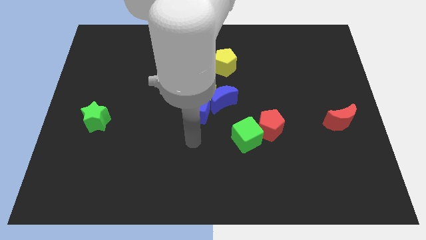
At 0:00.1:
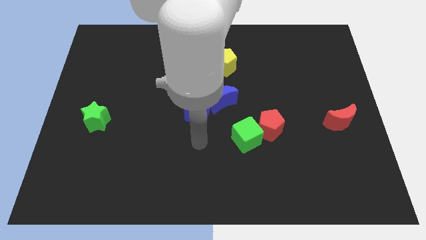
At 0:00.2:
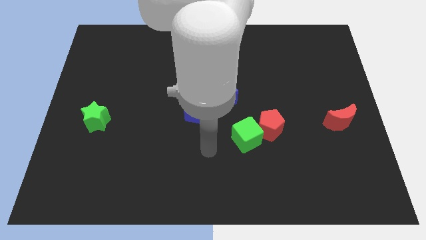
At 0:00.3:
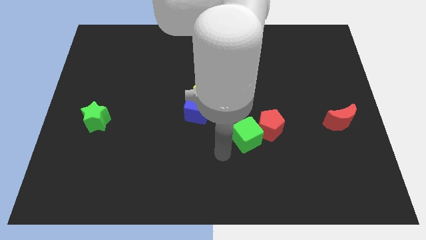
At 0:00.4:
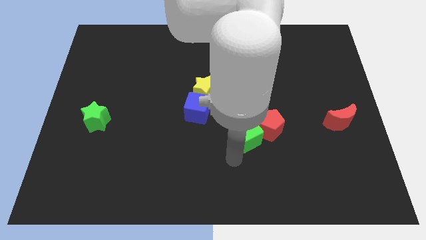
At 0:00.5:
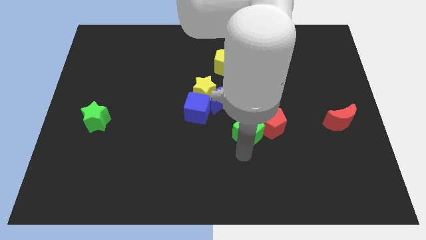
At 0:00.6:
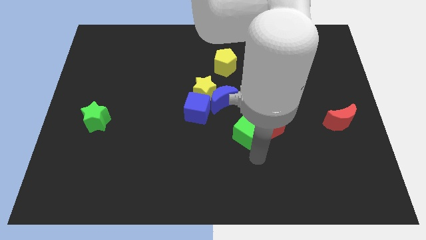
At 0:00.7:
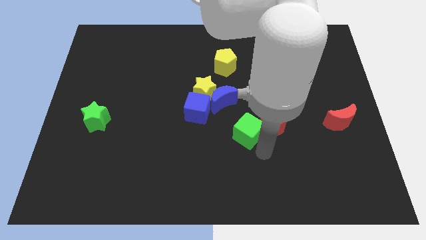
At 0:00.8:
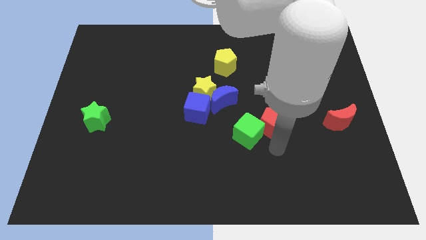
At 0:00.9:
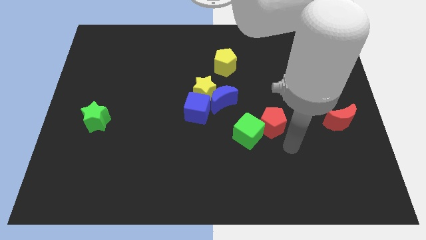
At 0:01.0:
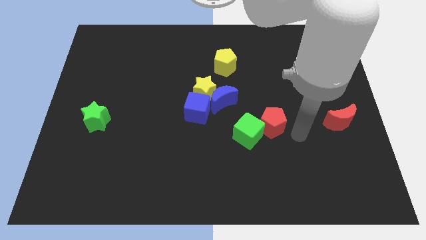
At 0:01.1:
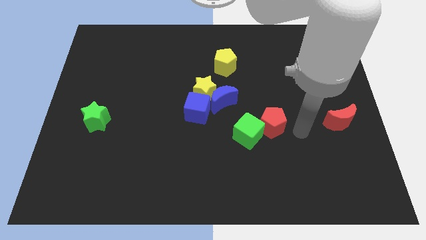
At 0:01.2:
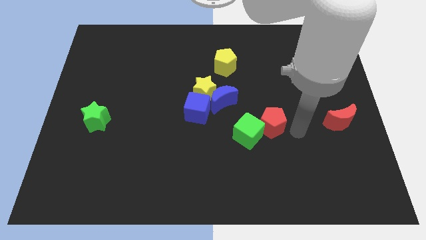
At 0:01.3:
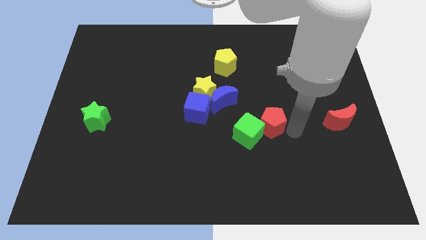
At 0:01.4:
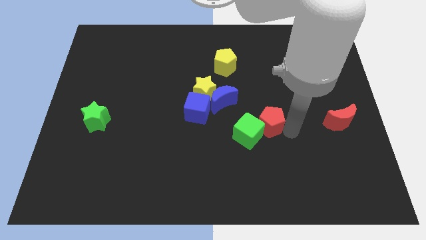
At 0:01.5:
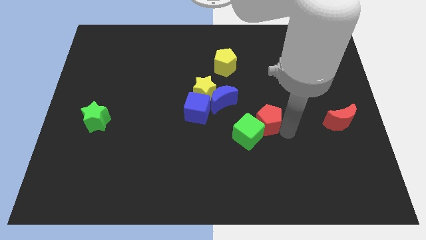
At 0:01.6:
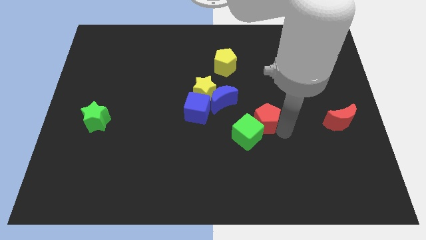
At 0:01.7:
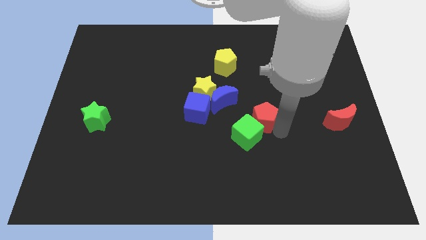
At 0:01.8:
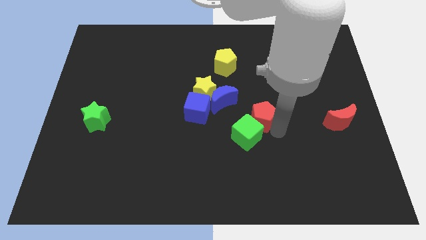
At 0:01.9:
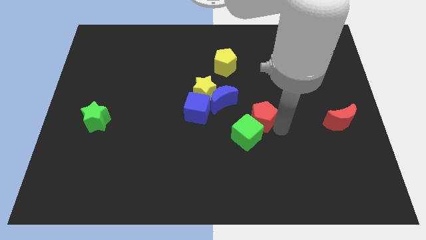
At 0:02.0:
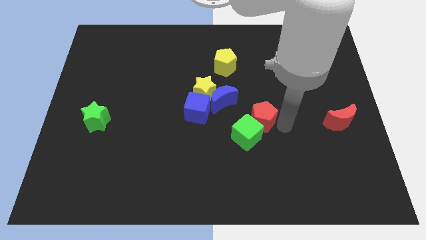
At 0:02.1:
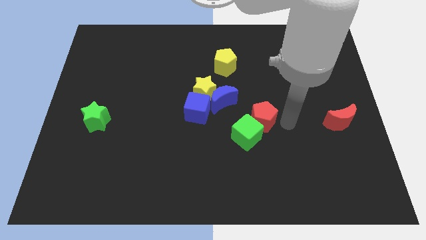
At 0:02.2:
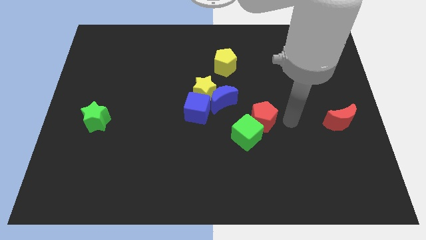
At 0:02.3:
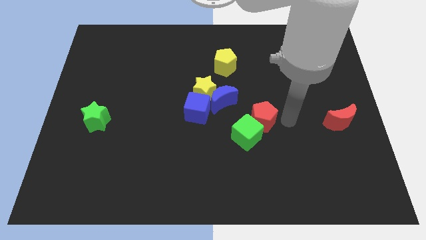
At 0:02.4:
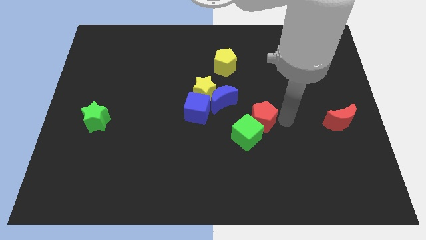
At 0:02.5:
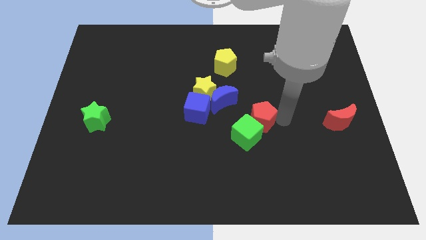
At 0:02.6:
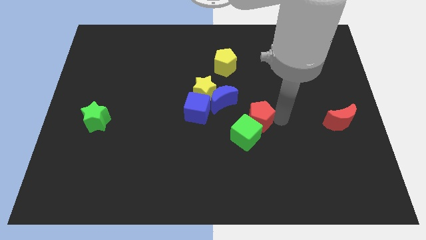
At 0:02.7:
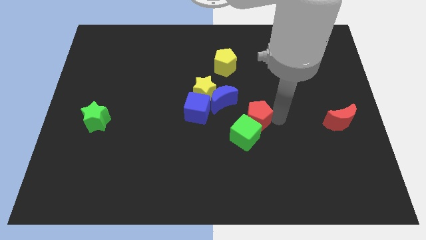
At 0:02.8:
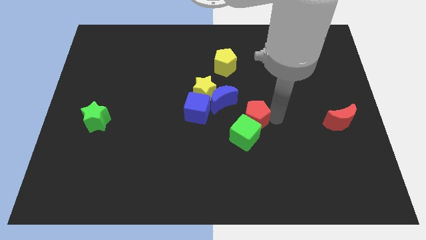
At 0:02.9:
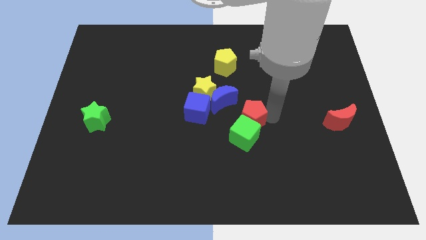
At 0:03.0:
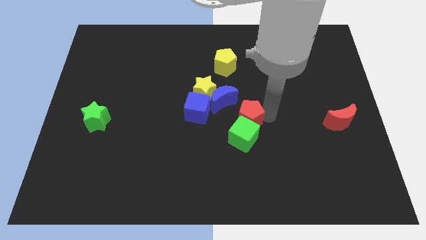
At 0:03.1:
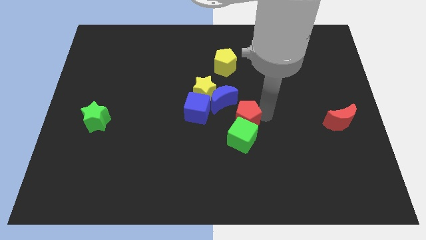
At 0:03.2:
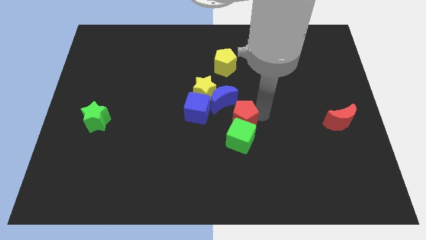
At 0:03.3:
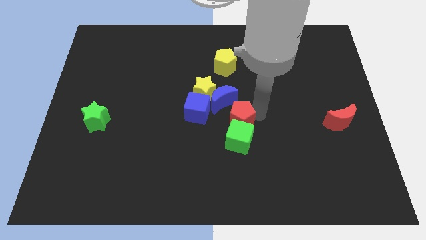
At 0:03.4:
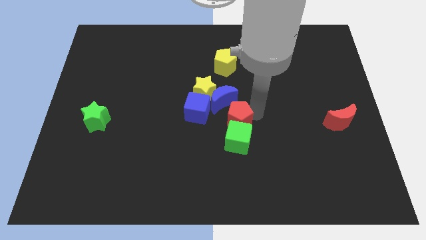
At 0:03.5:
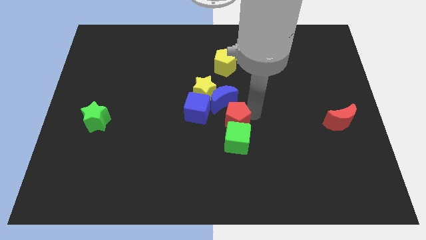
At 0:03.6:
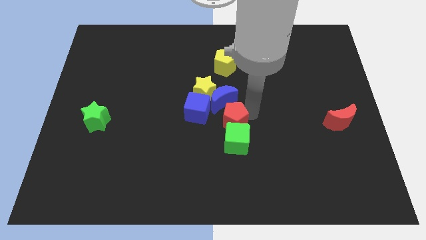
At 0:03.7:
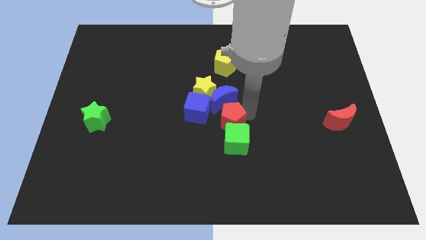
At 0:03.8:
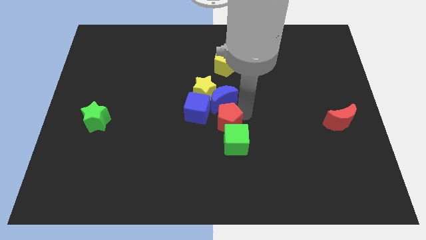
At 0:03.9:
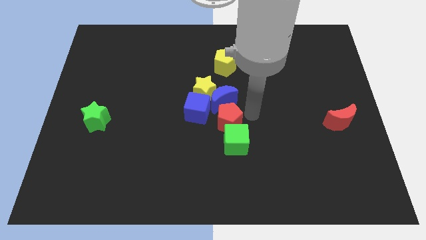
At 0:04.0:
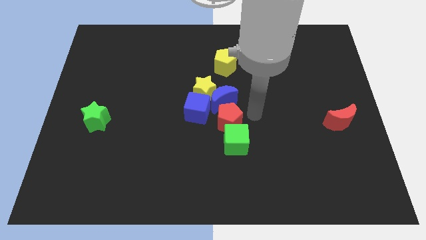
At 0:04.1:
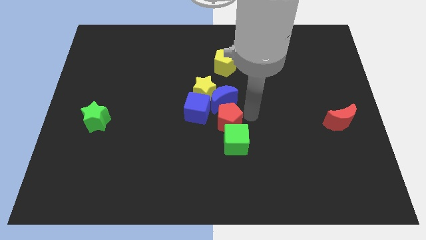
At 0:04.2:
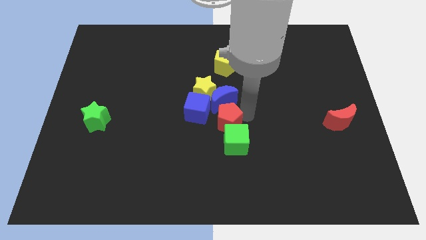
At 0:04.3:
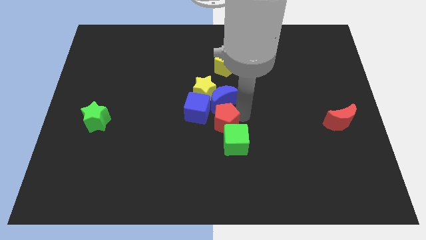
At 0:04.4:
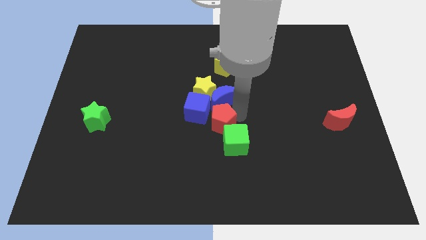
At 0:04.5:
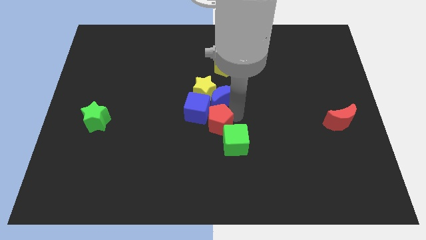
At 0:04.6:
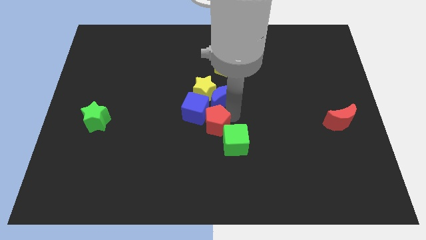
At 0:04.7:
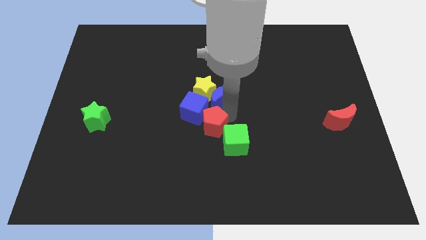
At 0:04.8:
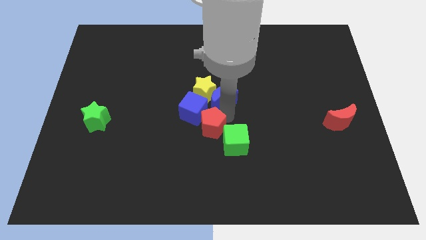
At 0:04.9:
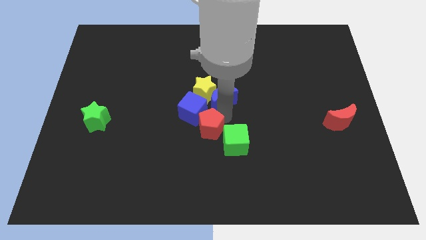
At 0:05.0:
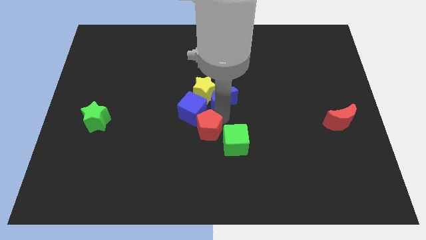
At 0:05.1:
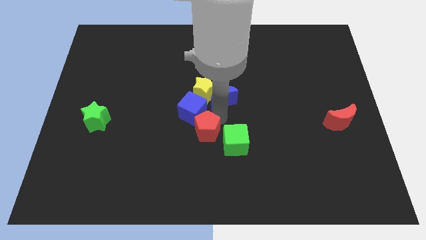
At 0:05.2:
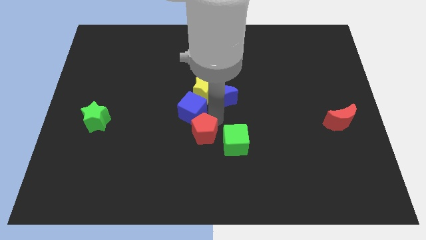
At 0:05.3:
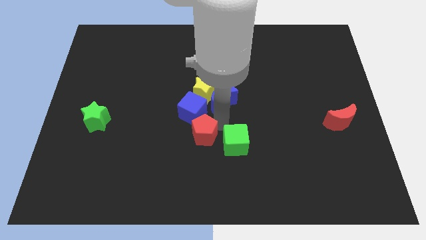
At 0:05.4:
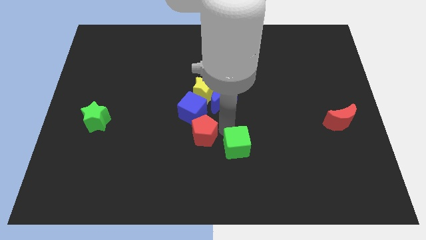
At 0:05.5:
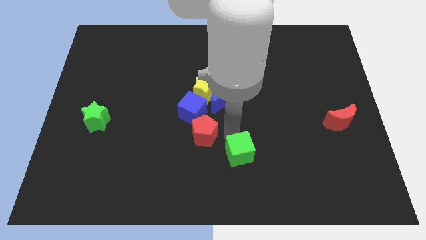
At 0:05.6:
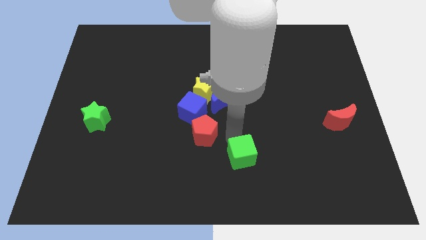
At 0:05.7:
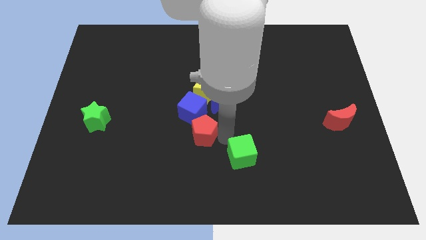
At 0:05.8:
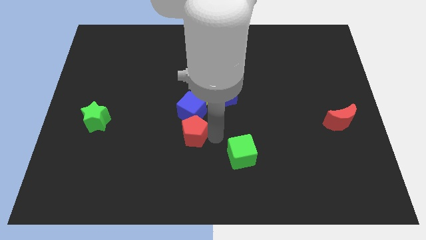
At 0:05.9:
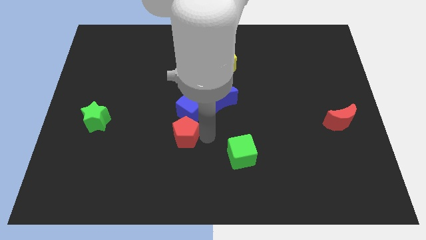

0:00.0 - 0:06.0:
put the red pentagon diagonally down and to the left of the blue cube

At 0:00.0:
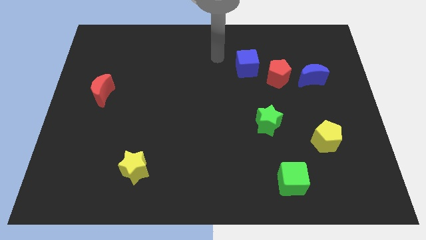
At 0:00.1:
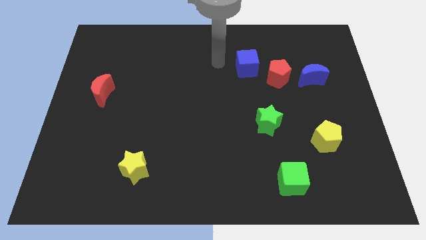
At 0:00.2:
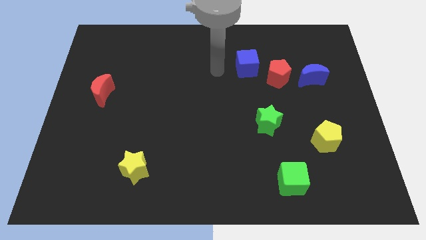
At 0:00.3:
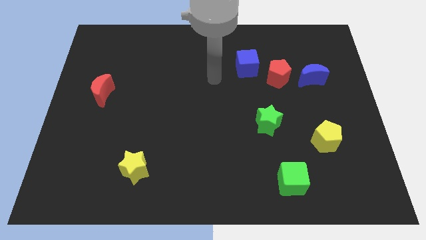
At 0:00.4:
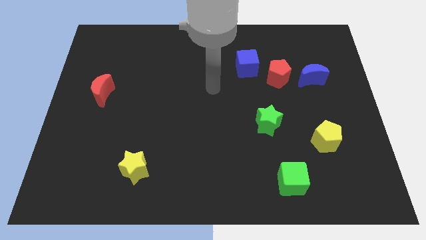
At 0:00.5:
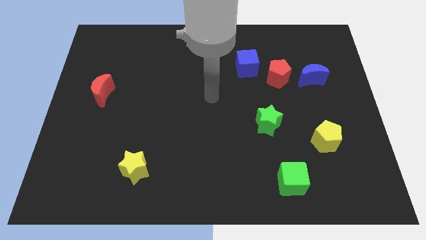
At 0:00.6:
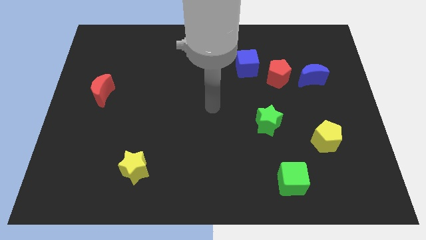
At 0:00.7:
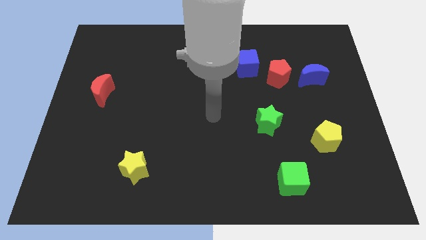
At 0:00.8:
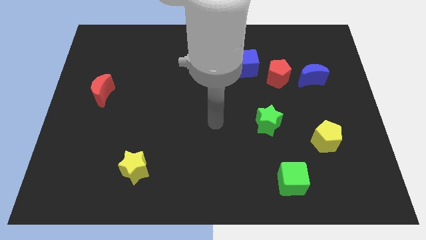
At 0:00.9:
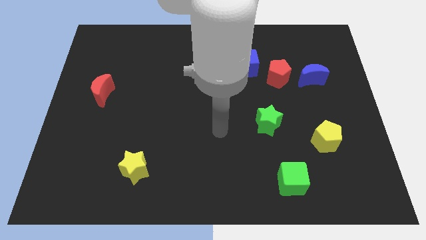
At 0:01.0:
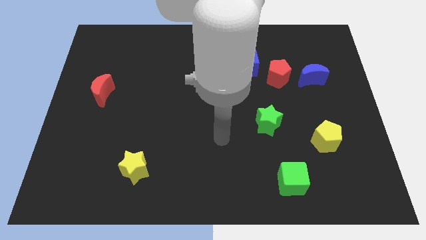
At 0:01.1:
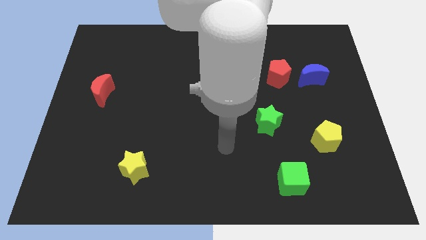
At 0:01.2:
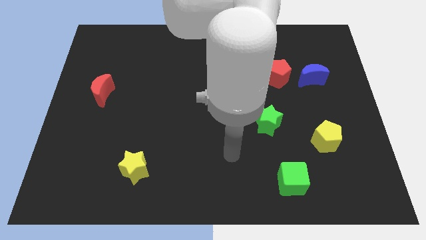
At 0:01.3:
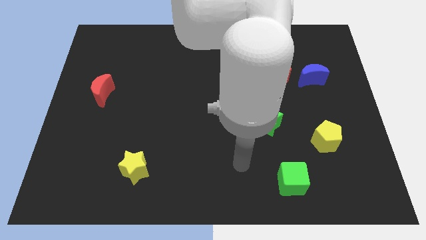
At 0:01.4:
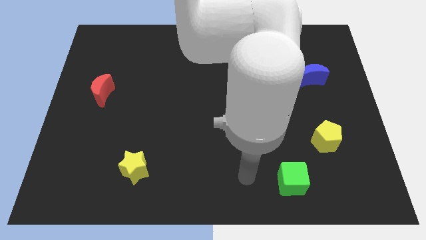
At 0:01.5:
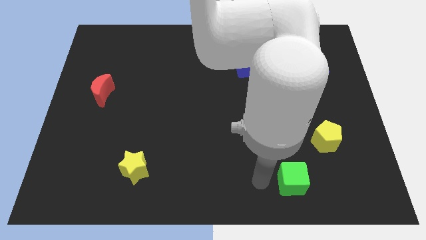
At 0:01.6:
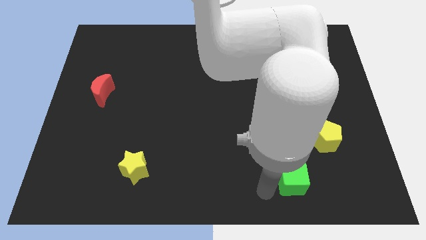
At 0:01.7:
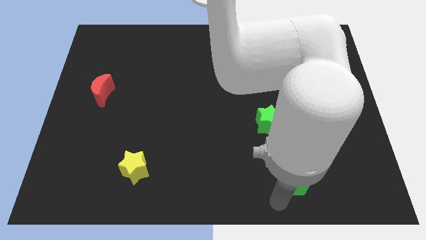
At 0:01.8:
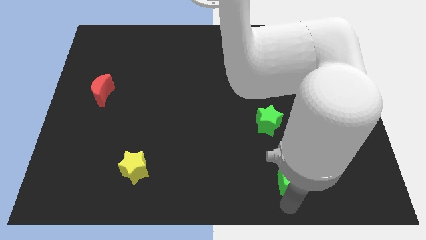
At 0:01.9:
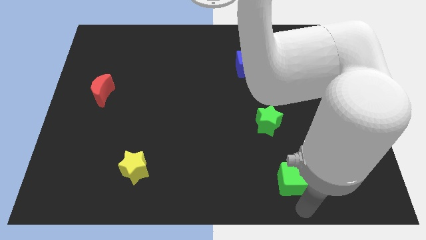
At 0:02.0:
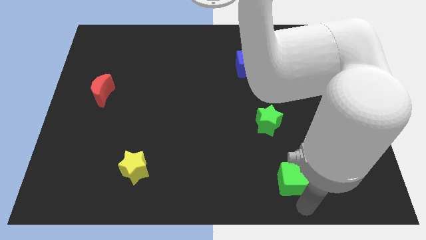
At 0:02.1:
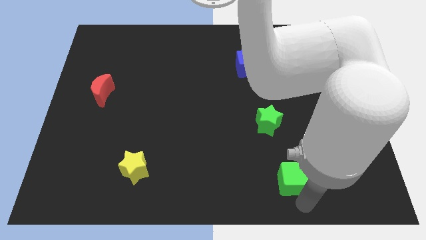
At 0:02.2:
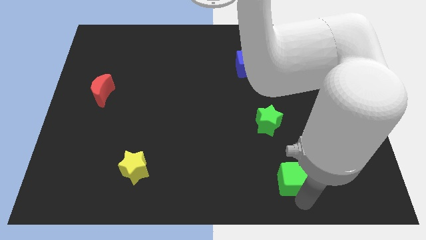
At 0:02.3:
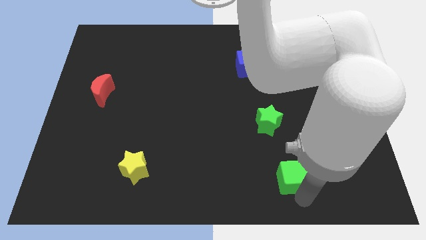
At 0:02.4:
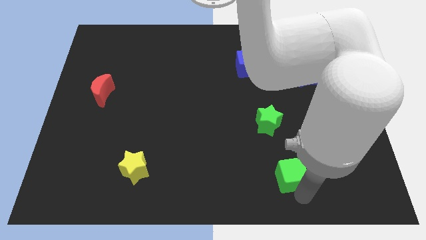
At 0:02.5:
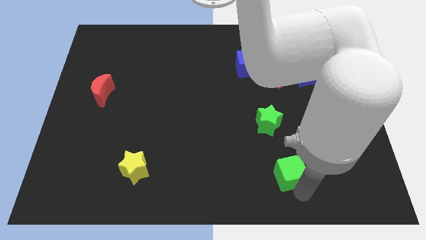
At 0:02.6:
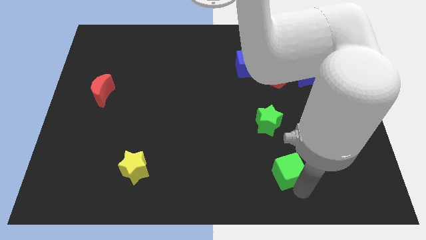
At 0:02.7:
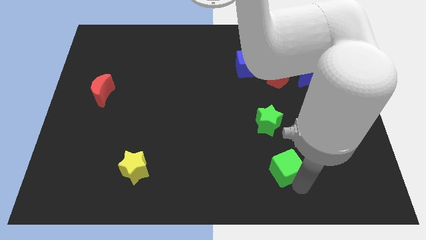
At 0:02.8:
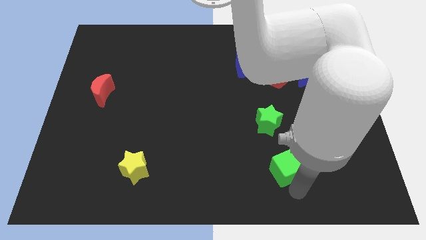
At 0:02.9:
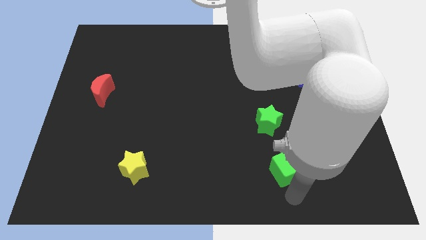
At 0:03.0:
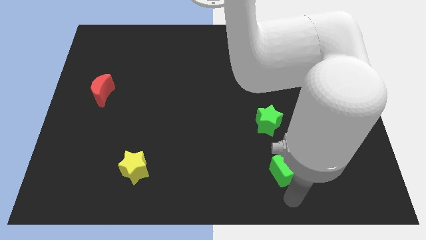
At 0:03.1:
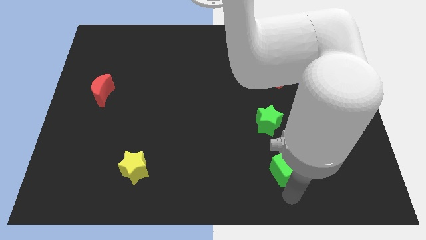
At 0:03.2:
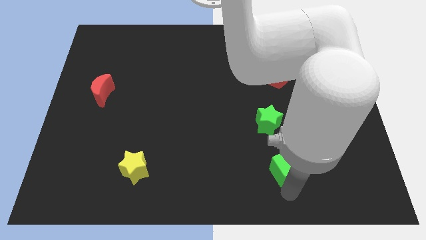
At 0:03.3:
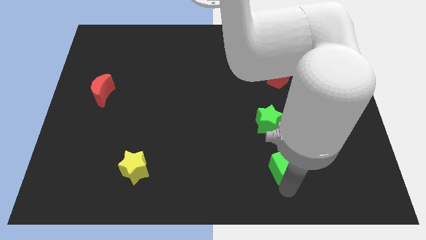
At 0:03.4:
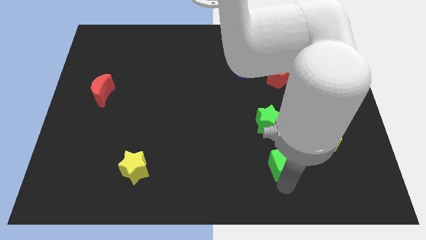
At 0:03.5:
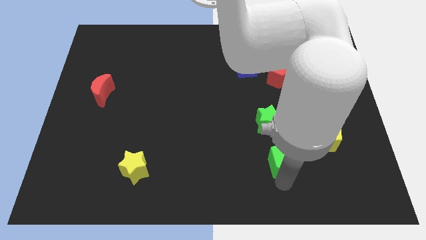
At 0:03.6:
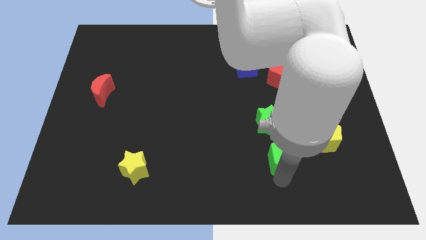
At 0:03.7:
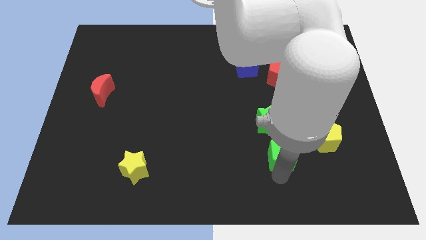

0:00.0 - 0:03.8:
slide the green cube to the left side of the yellow pentagon
